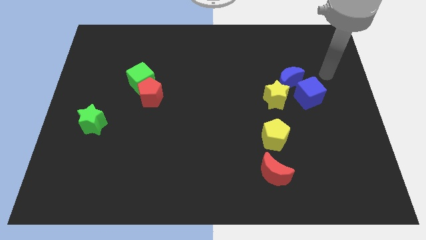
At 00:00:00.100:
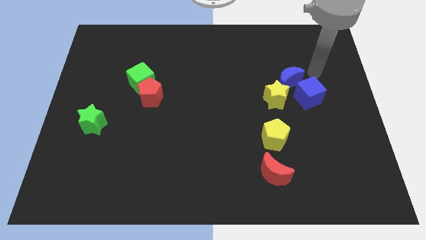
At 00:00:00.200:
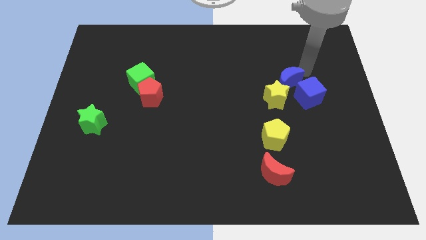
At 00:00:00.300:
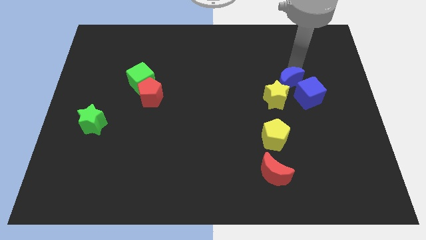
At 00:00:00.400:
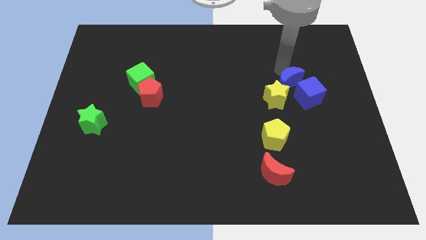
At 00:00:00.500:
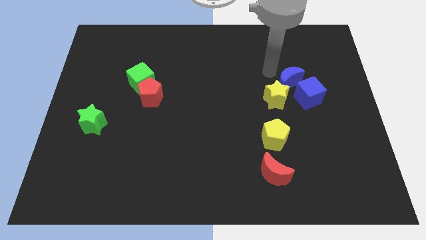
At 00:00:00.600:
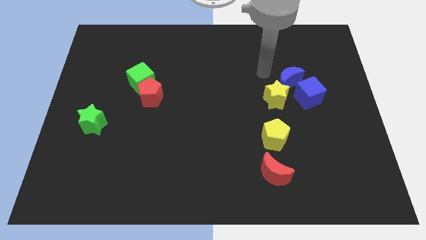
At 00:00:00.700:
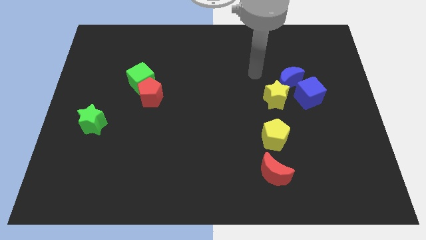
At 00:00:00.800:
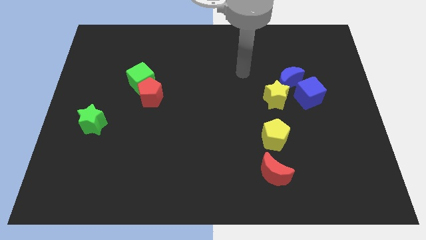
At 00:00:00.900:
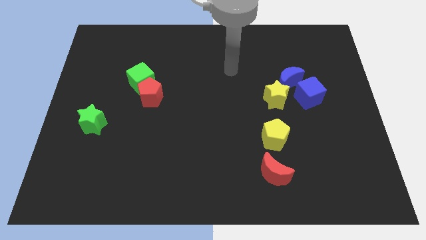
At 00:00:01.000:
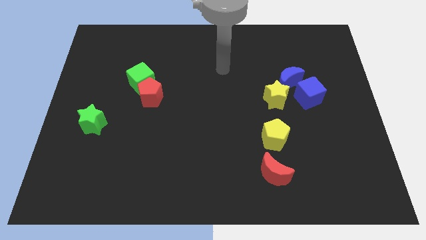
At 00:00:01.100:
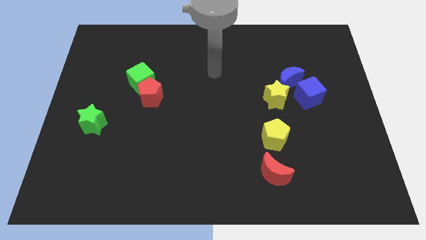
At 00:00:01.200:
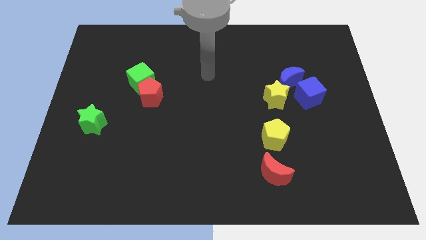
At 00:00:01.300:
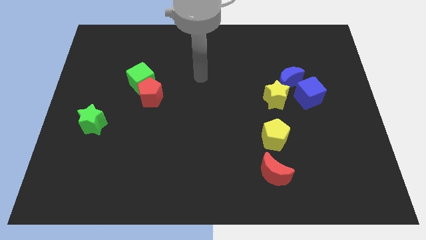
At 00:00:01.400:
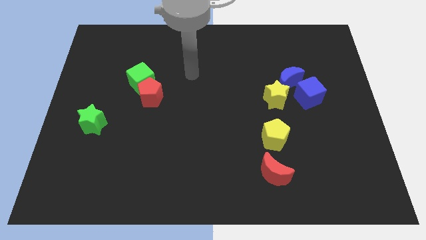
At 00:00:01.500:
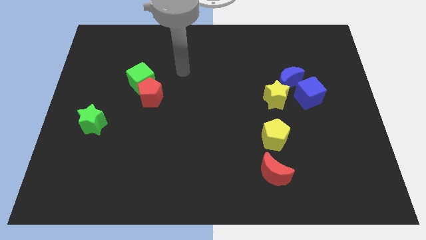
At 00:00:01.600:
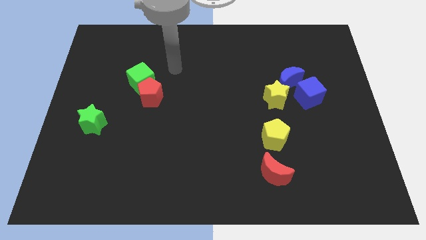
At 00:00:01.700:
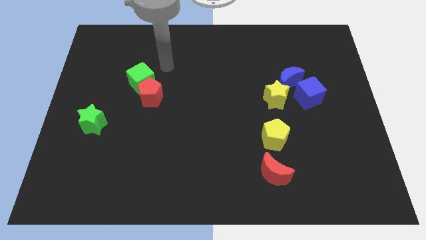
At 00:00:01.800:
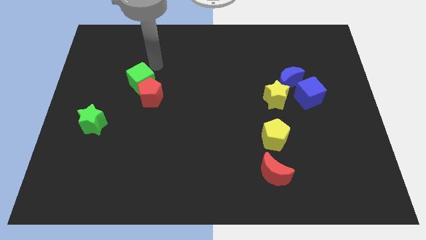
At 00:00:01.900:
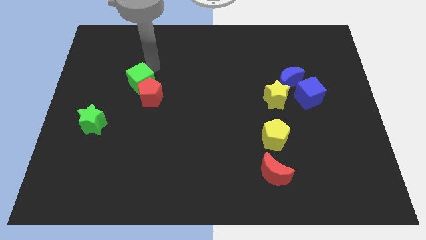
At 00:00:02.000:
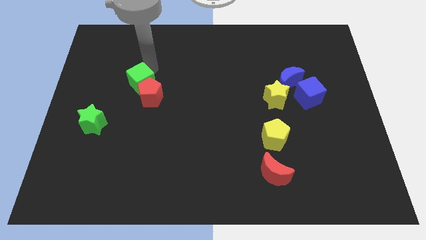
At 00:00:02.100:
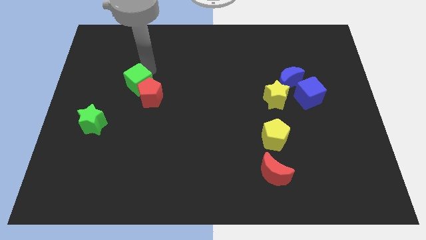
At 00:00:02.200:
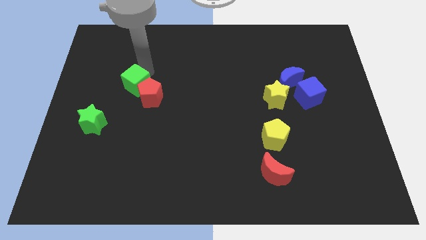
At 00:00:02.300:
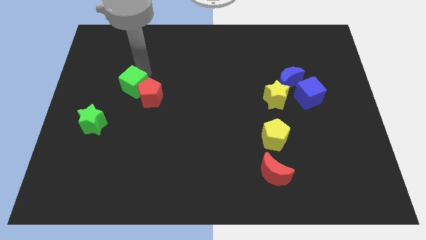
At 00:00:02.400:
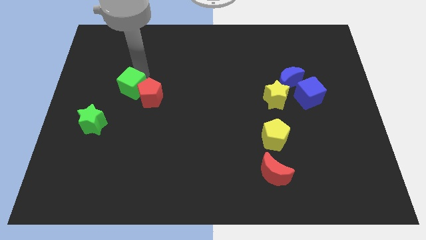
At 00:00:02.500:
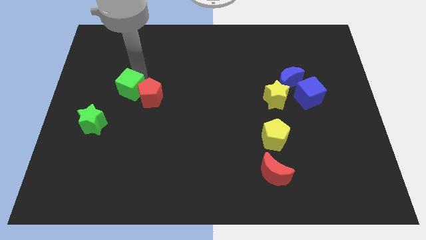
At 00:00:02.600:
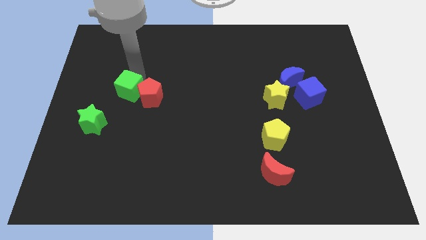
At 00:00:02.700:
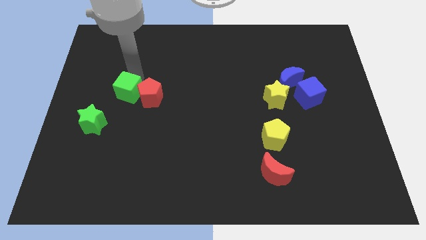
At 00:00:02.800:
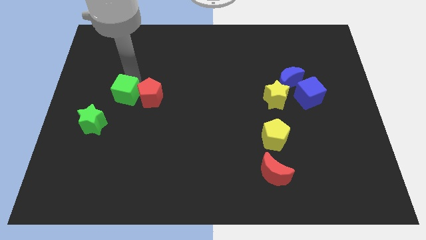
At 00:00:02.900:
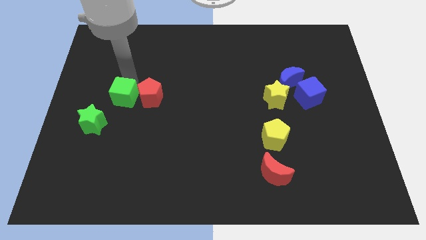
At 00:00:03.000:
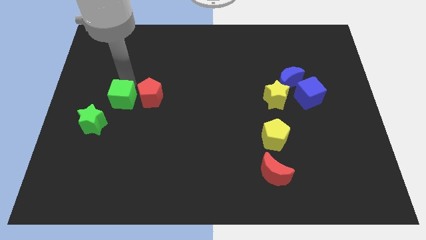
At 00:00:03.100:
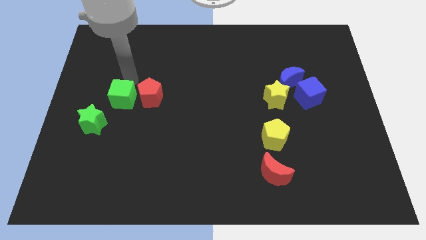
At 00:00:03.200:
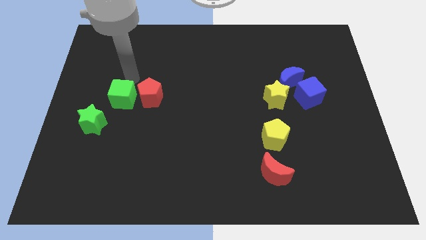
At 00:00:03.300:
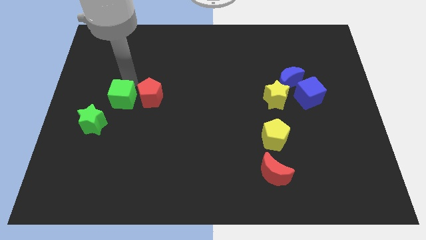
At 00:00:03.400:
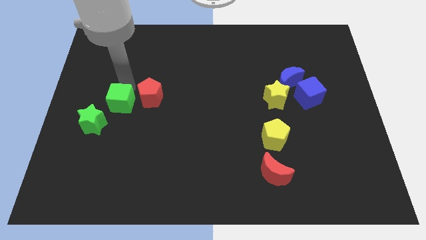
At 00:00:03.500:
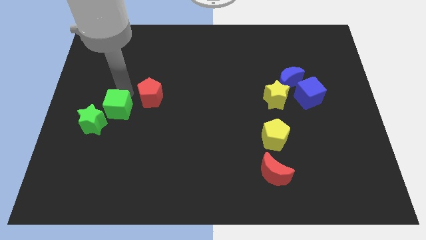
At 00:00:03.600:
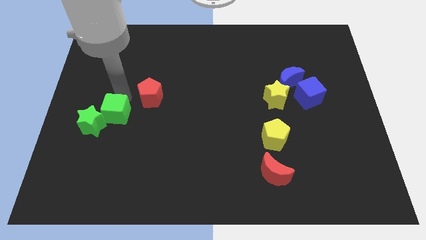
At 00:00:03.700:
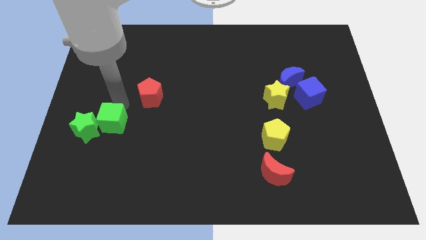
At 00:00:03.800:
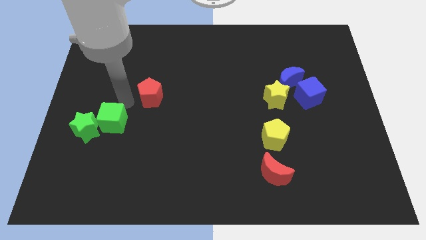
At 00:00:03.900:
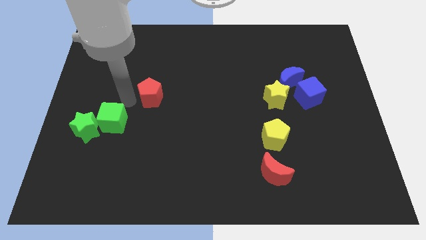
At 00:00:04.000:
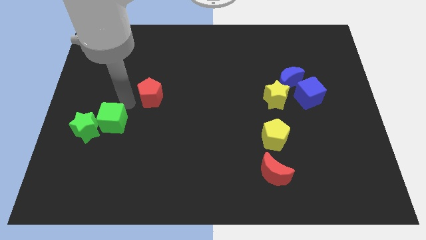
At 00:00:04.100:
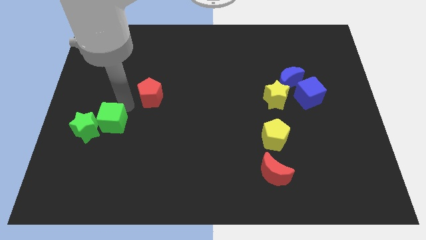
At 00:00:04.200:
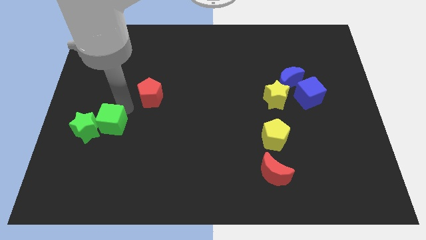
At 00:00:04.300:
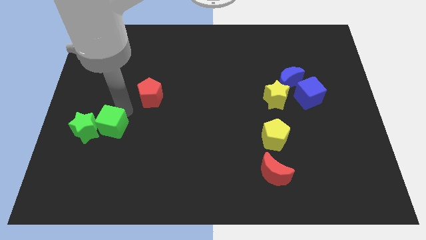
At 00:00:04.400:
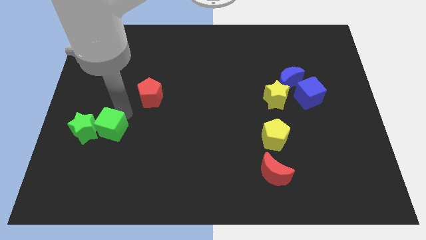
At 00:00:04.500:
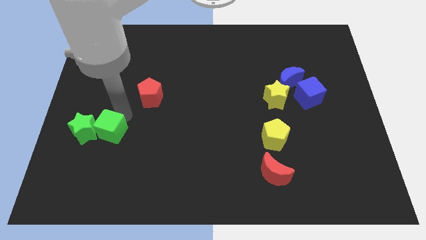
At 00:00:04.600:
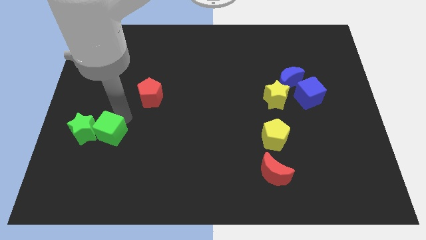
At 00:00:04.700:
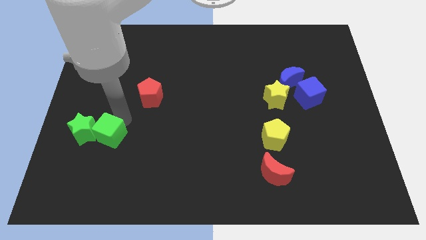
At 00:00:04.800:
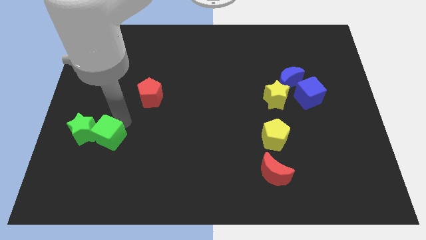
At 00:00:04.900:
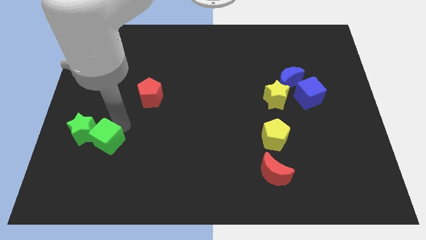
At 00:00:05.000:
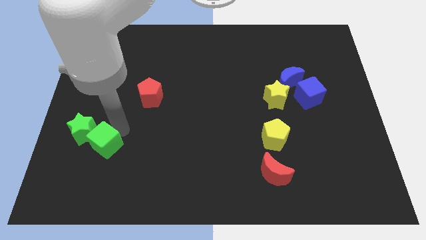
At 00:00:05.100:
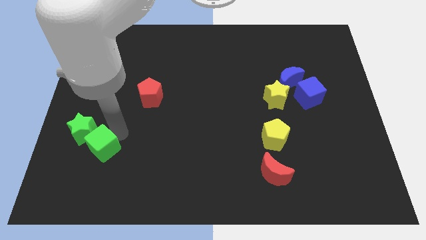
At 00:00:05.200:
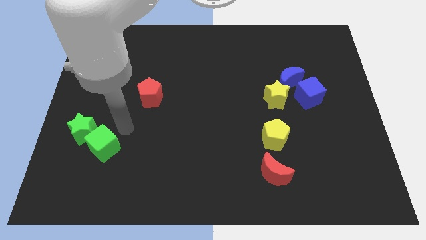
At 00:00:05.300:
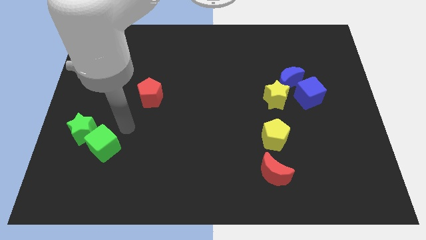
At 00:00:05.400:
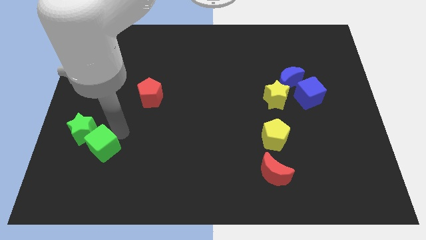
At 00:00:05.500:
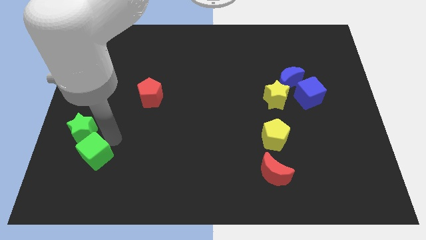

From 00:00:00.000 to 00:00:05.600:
move the green cube below the green star

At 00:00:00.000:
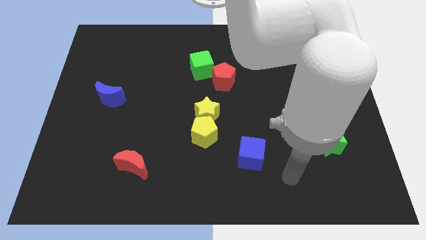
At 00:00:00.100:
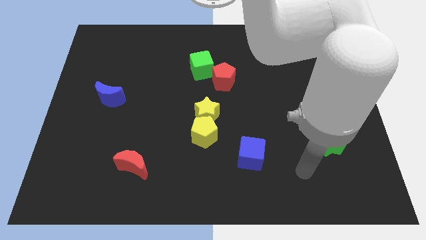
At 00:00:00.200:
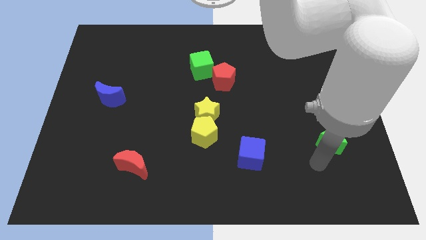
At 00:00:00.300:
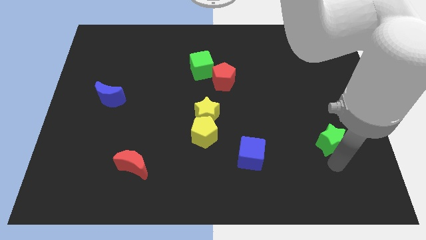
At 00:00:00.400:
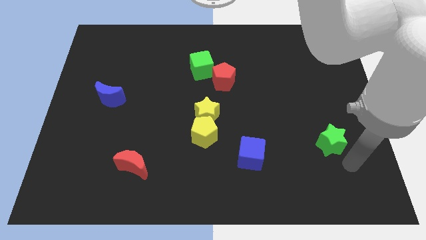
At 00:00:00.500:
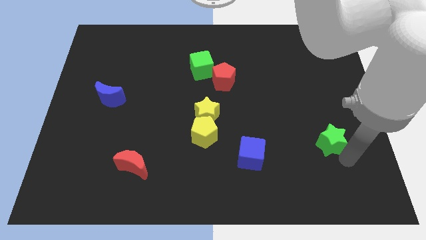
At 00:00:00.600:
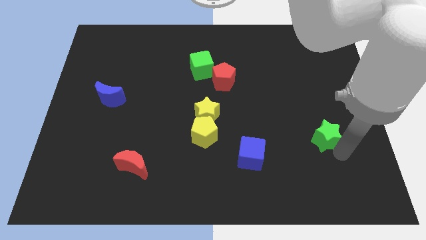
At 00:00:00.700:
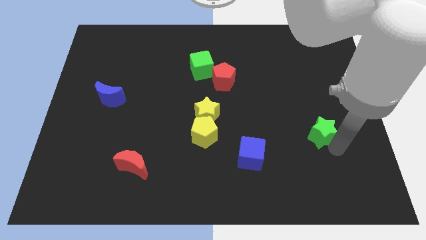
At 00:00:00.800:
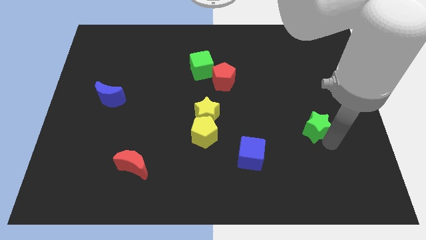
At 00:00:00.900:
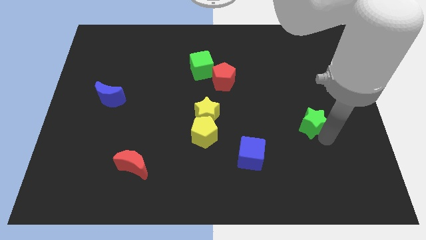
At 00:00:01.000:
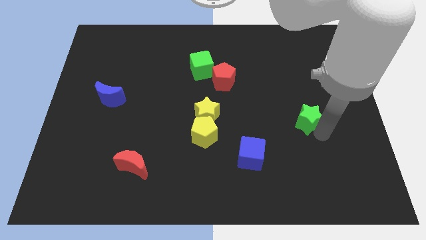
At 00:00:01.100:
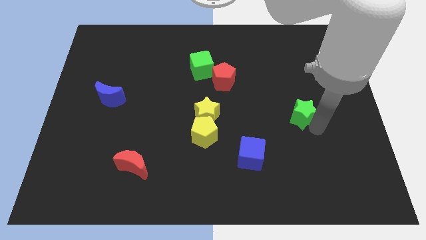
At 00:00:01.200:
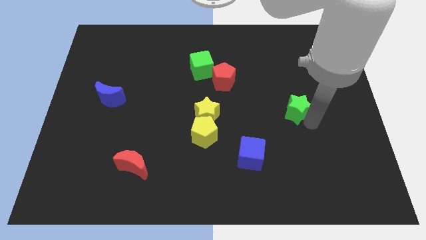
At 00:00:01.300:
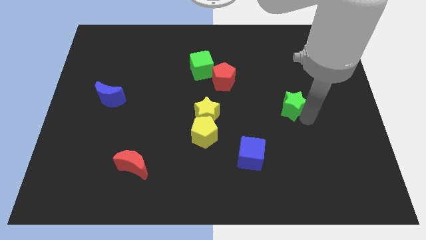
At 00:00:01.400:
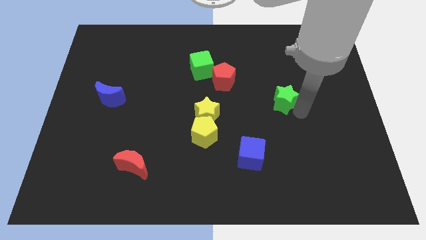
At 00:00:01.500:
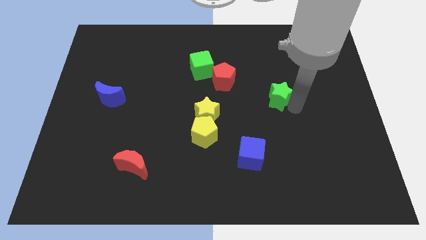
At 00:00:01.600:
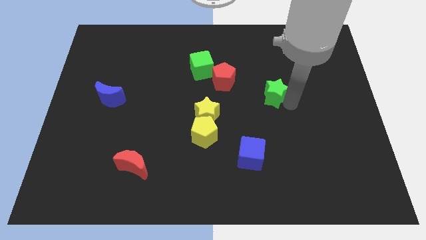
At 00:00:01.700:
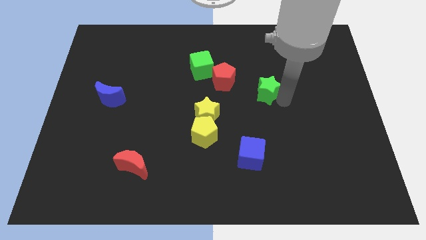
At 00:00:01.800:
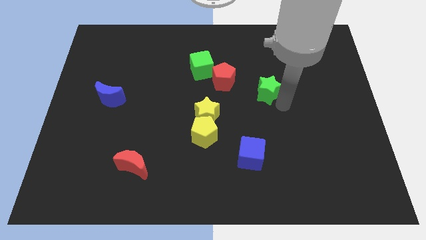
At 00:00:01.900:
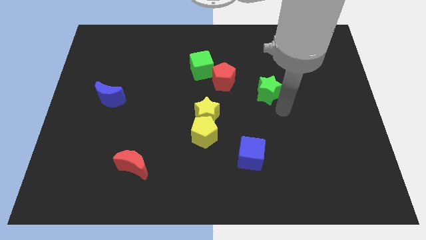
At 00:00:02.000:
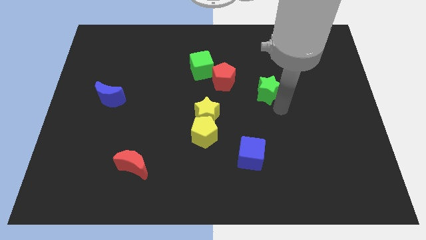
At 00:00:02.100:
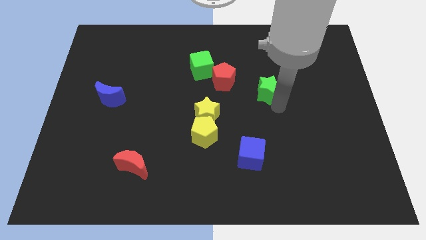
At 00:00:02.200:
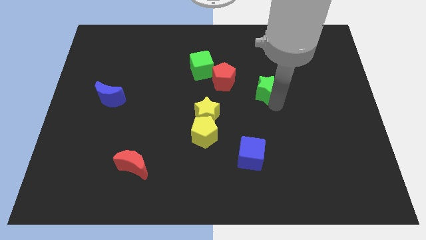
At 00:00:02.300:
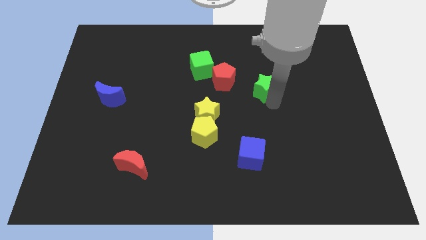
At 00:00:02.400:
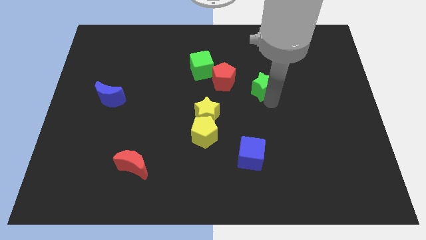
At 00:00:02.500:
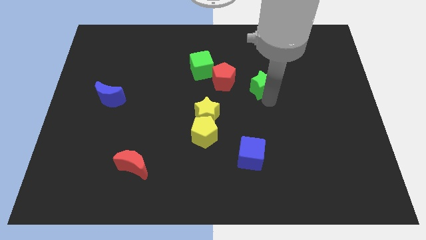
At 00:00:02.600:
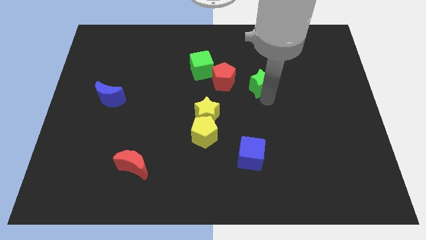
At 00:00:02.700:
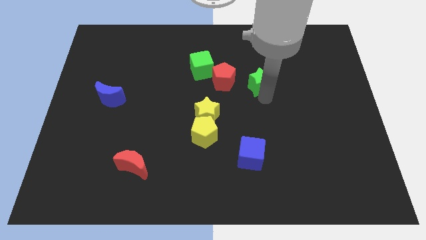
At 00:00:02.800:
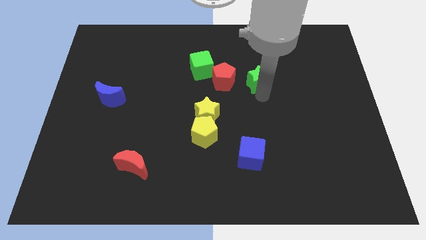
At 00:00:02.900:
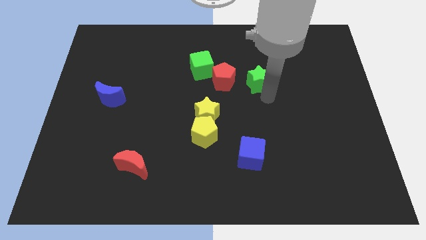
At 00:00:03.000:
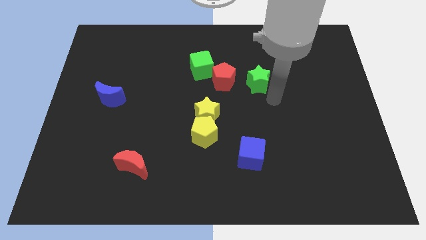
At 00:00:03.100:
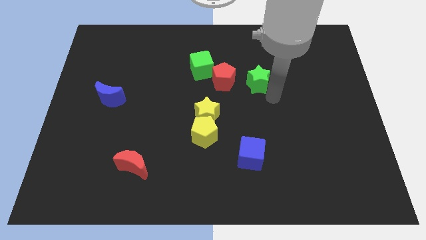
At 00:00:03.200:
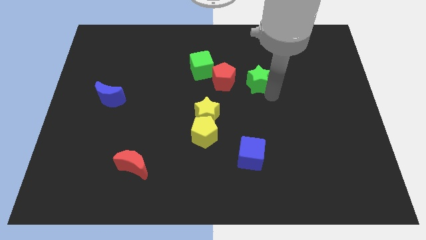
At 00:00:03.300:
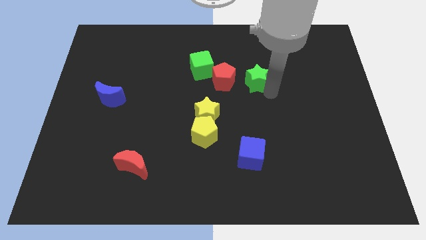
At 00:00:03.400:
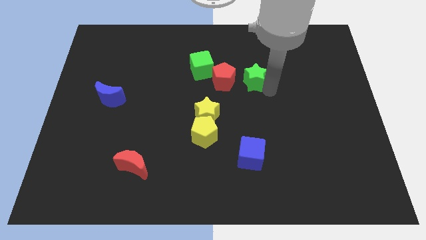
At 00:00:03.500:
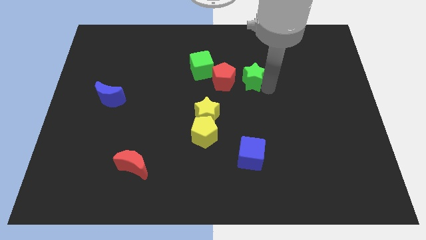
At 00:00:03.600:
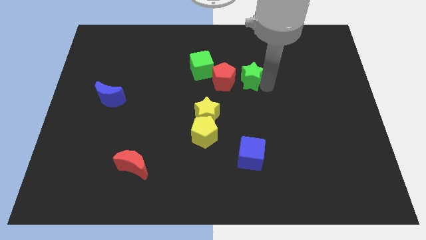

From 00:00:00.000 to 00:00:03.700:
move the green star diagonally up and to the right of the red pentagon
